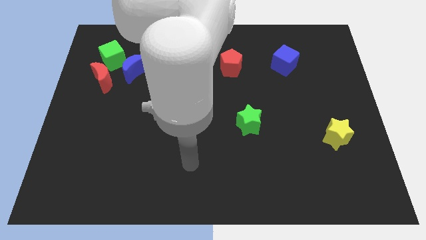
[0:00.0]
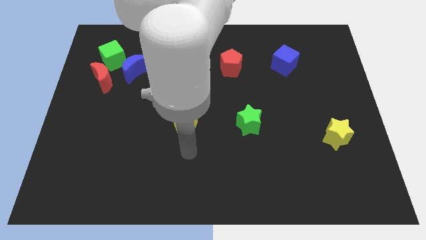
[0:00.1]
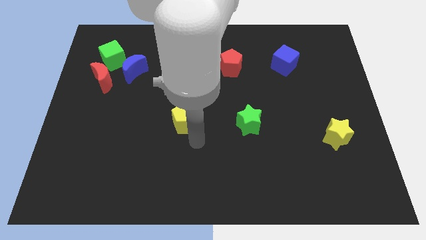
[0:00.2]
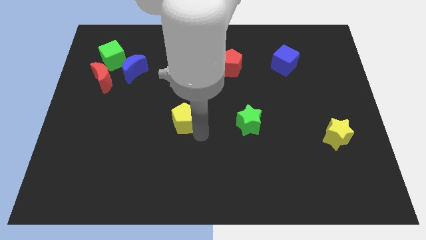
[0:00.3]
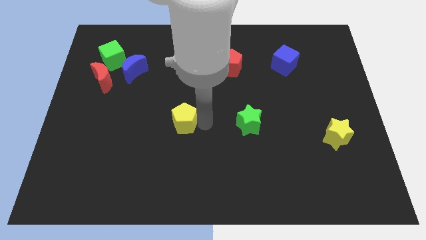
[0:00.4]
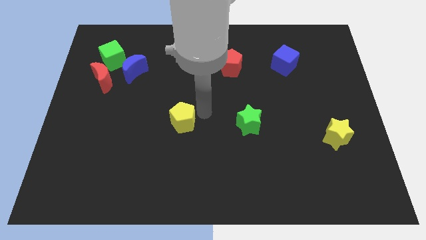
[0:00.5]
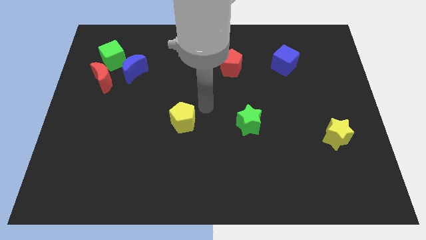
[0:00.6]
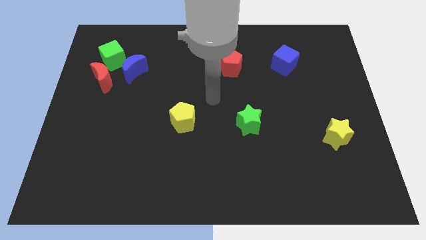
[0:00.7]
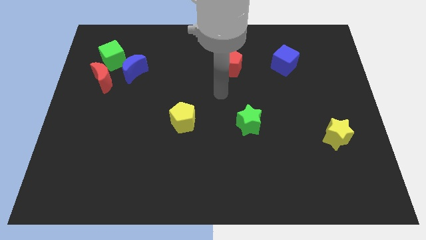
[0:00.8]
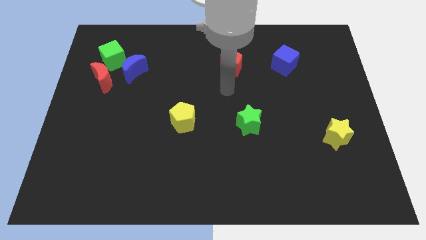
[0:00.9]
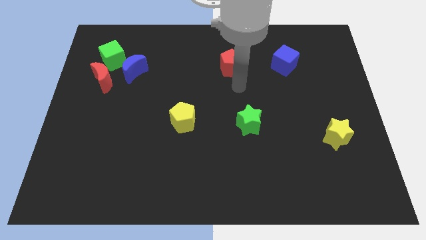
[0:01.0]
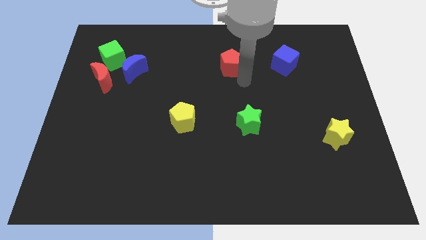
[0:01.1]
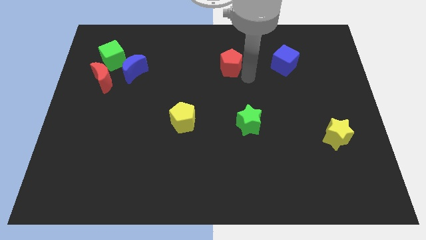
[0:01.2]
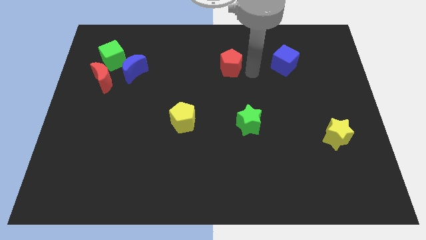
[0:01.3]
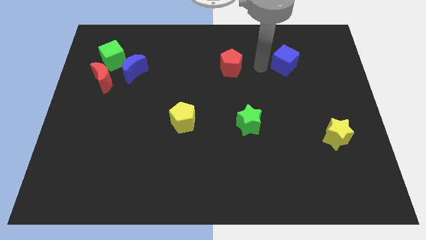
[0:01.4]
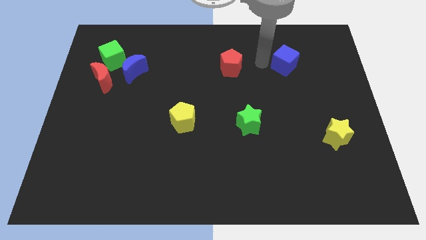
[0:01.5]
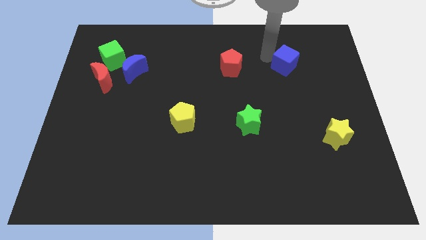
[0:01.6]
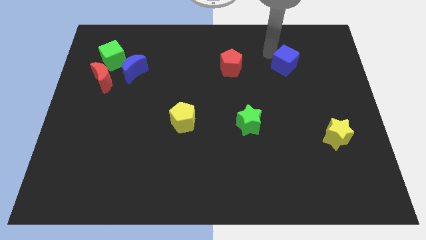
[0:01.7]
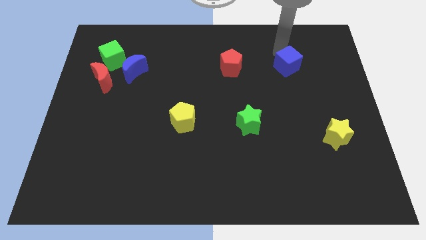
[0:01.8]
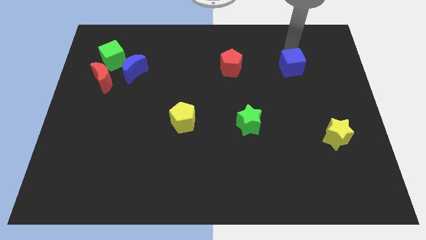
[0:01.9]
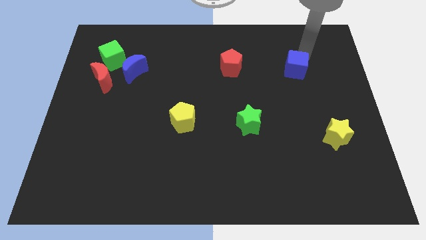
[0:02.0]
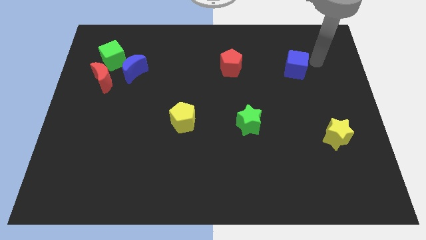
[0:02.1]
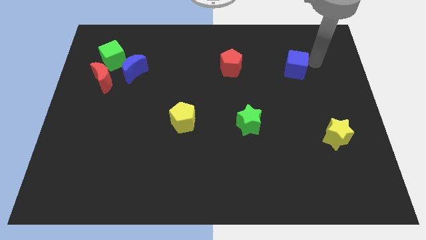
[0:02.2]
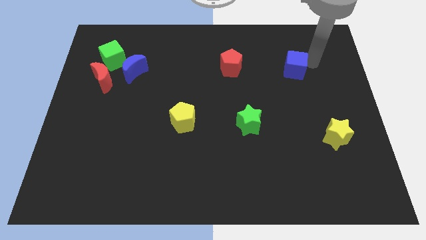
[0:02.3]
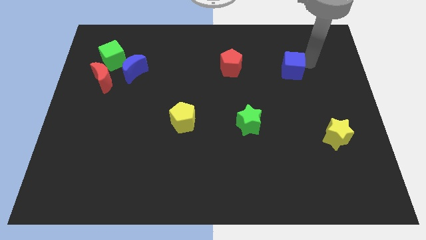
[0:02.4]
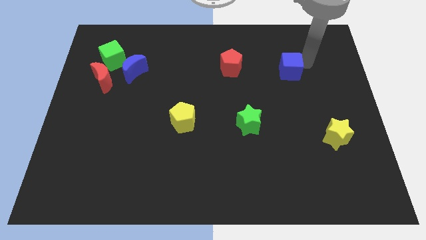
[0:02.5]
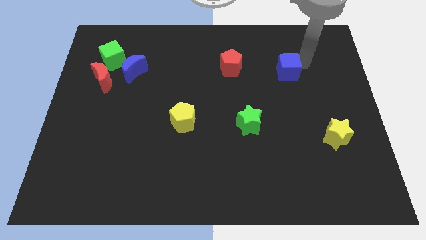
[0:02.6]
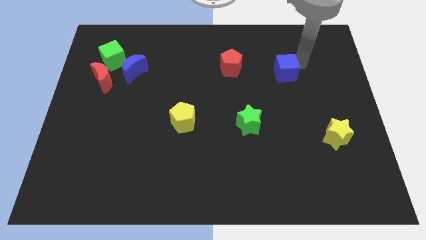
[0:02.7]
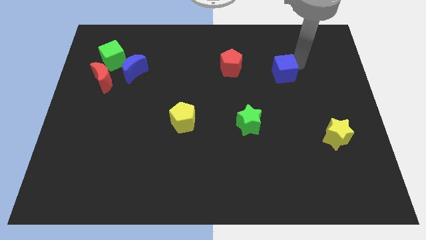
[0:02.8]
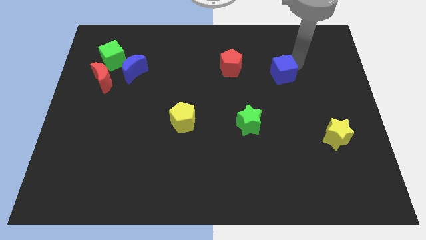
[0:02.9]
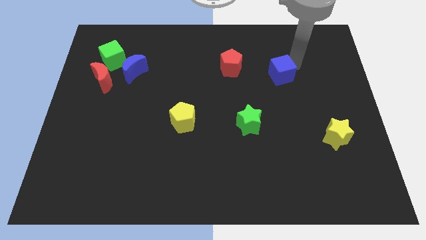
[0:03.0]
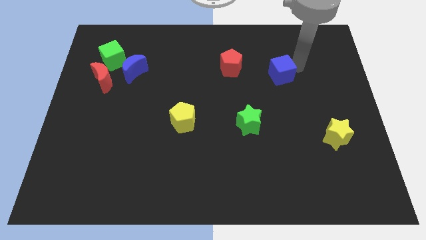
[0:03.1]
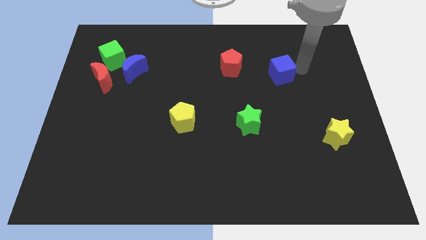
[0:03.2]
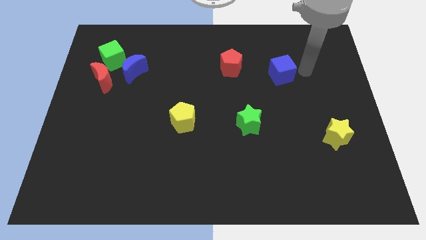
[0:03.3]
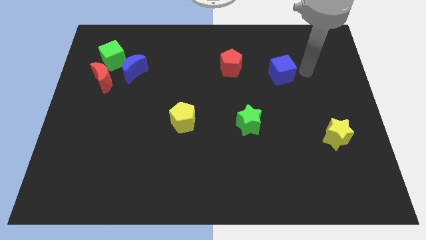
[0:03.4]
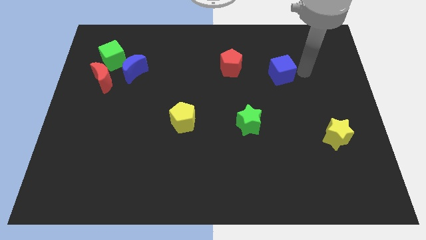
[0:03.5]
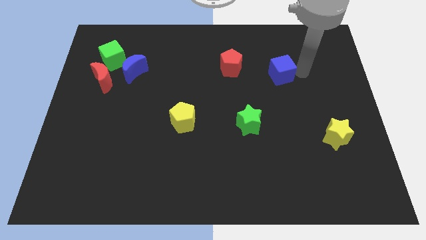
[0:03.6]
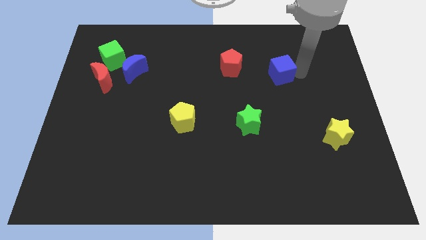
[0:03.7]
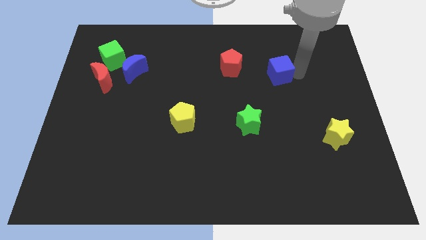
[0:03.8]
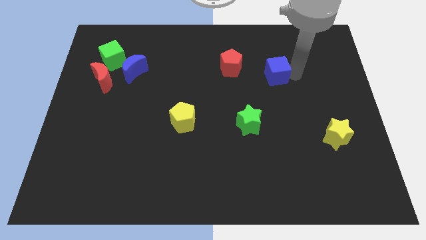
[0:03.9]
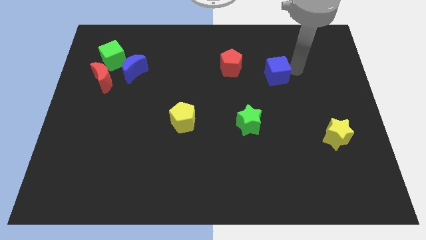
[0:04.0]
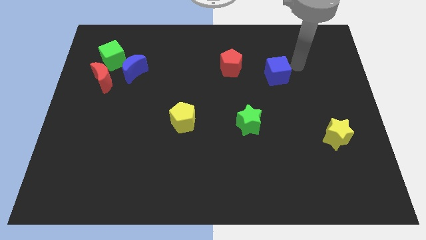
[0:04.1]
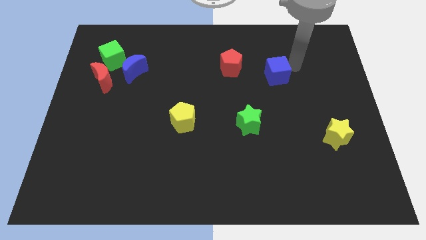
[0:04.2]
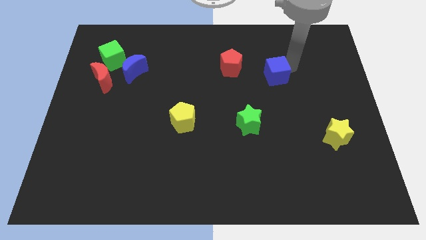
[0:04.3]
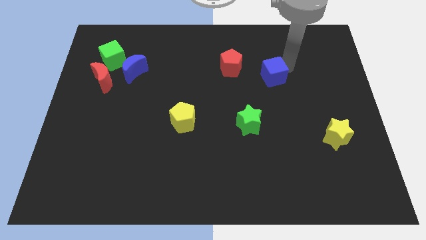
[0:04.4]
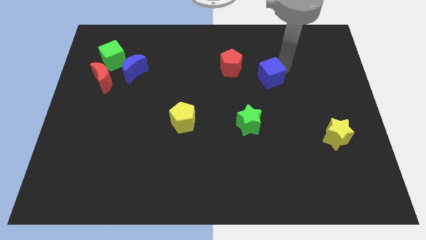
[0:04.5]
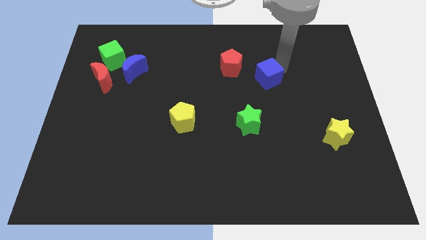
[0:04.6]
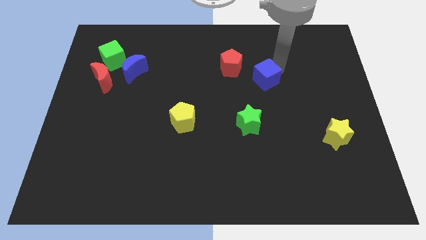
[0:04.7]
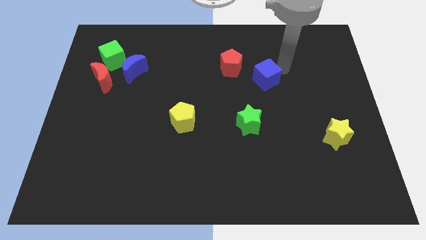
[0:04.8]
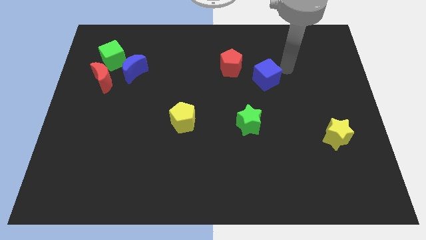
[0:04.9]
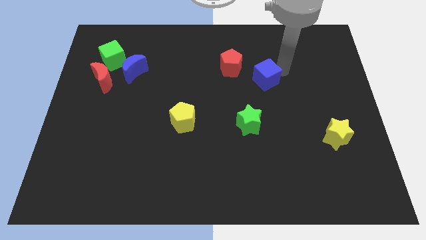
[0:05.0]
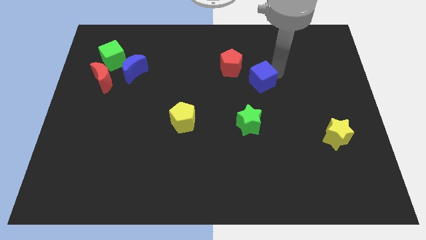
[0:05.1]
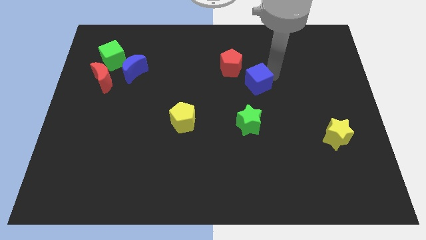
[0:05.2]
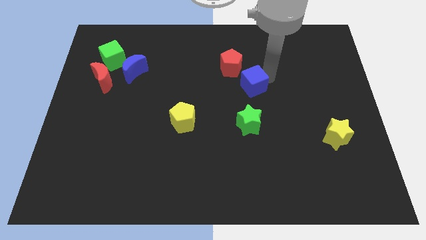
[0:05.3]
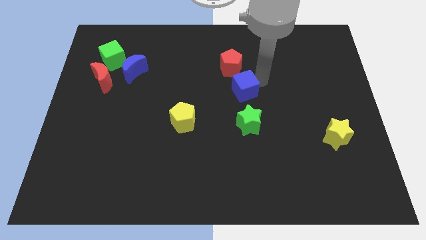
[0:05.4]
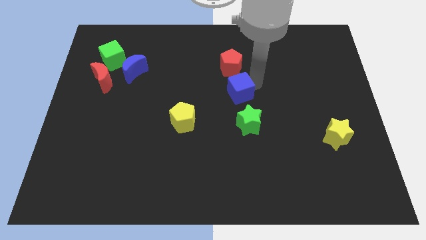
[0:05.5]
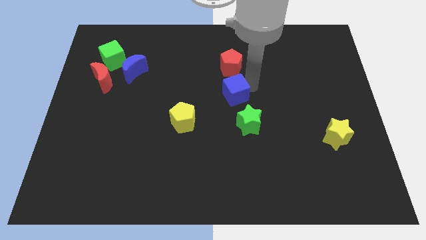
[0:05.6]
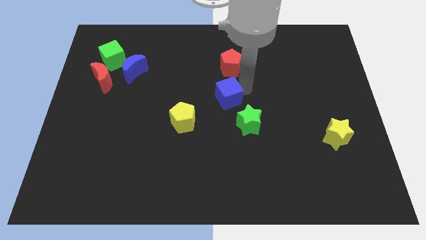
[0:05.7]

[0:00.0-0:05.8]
push the blue cube to the top right side of the yellow pentagon

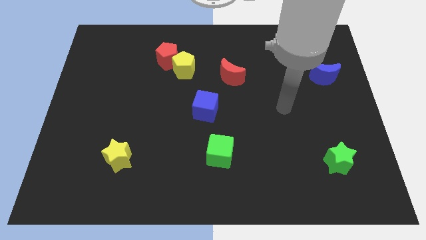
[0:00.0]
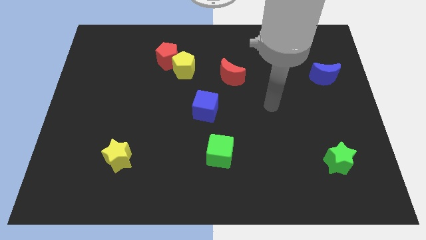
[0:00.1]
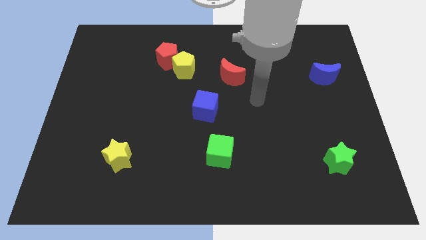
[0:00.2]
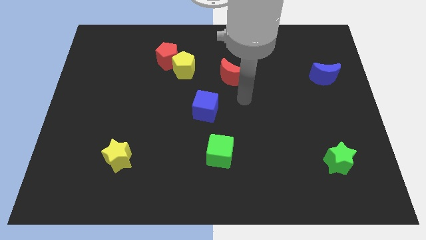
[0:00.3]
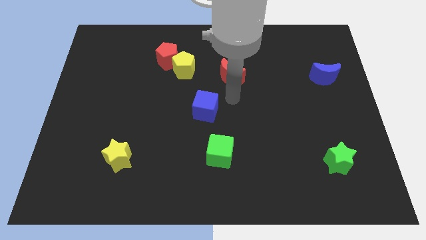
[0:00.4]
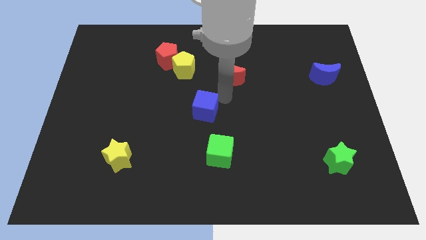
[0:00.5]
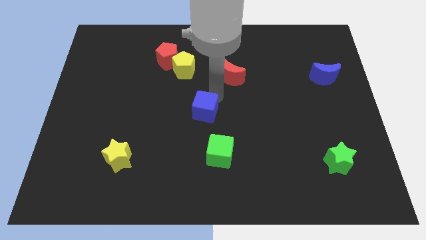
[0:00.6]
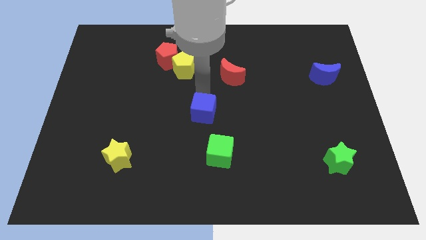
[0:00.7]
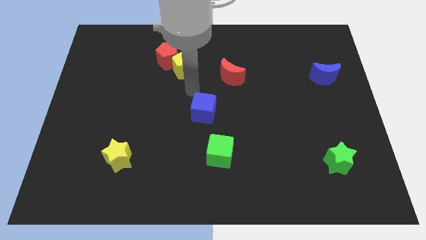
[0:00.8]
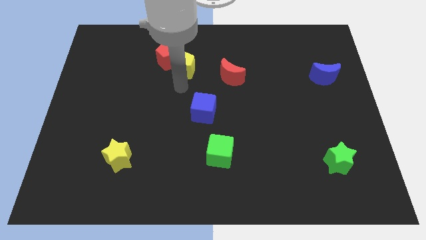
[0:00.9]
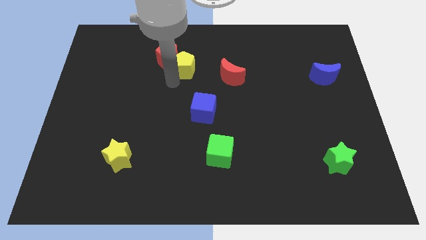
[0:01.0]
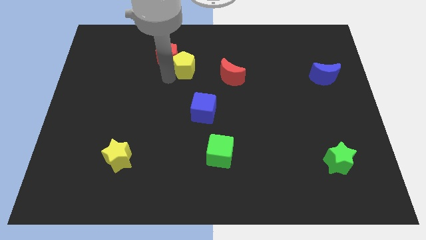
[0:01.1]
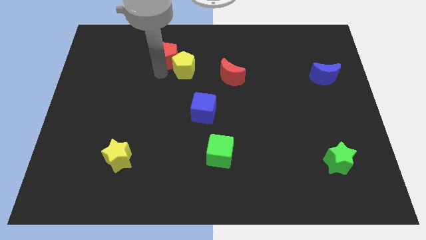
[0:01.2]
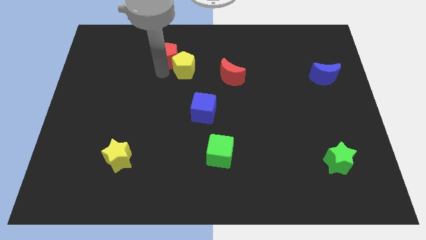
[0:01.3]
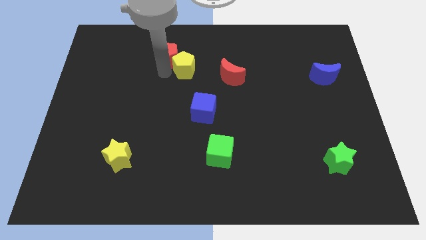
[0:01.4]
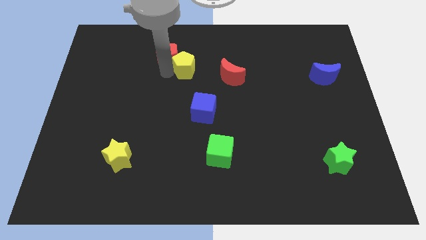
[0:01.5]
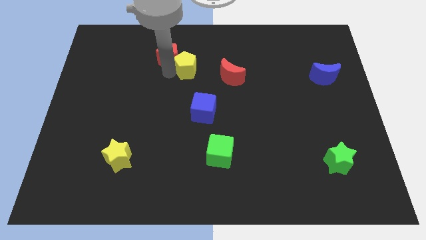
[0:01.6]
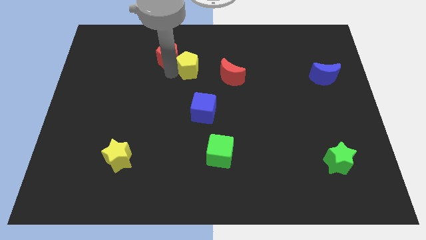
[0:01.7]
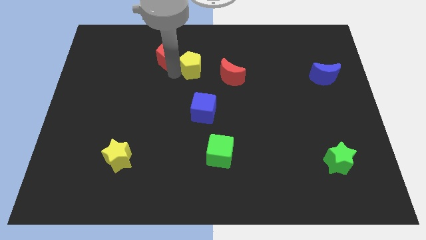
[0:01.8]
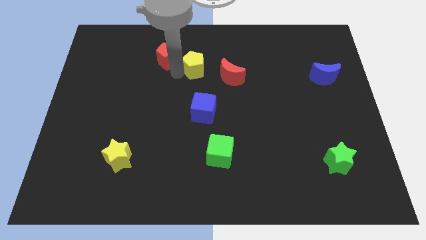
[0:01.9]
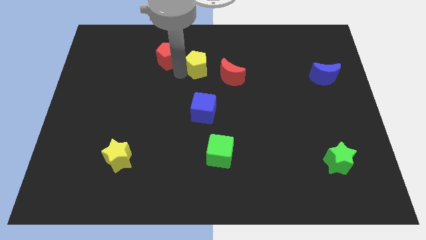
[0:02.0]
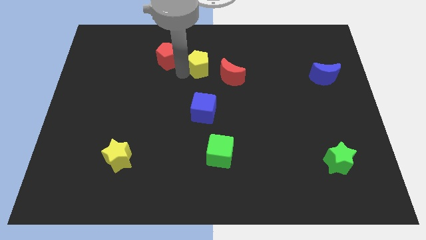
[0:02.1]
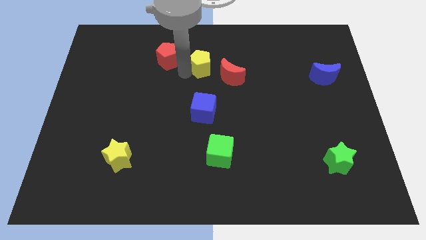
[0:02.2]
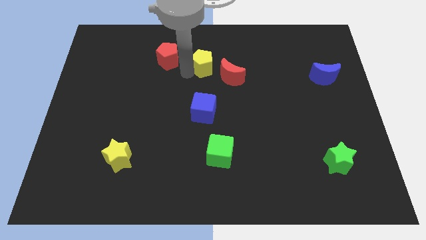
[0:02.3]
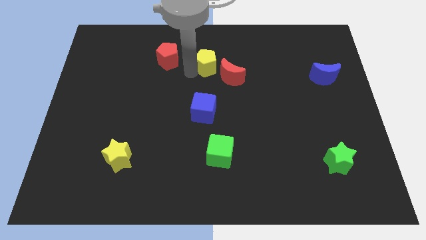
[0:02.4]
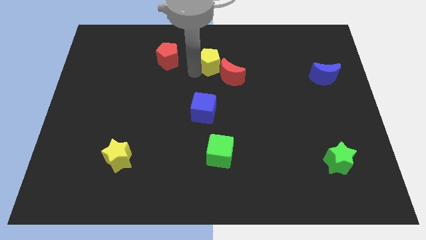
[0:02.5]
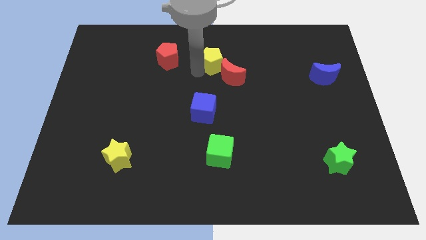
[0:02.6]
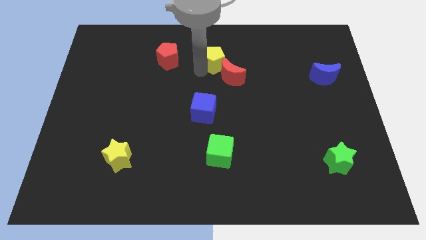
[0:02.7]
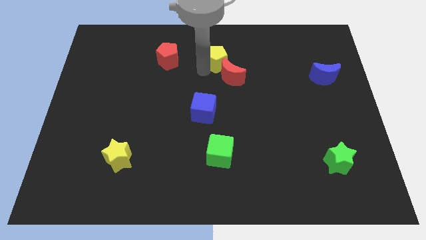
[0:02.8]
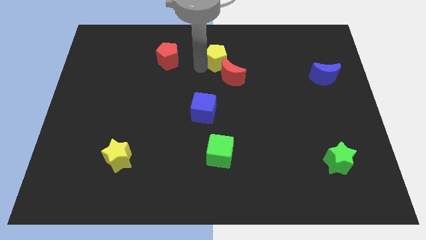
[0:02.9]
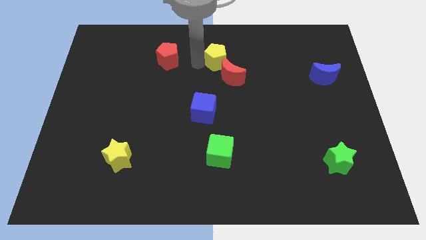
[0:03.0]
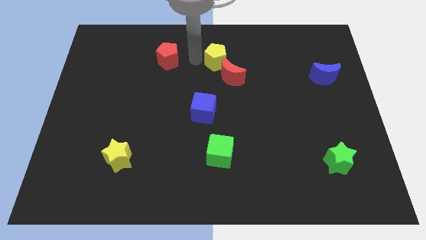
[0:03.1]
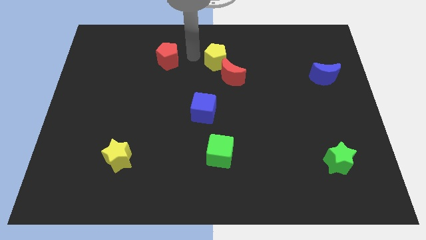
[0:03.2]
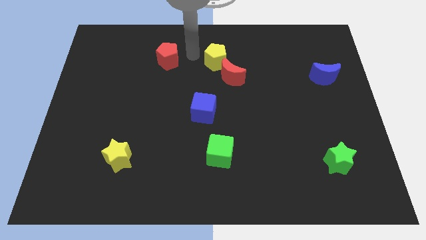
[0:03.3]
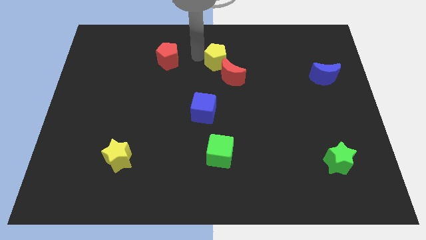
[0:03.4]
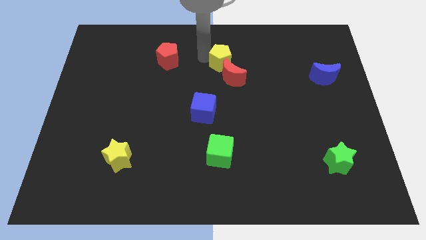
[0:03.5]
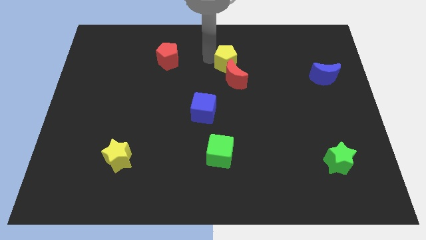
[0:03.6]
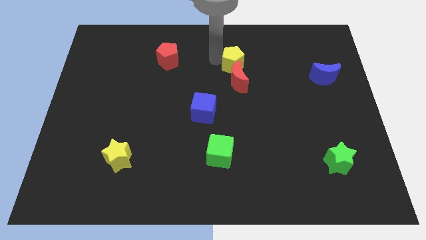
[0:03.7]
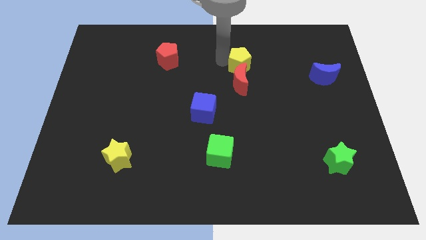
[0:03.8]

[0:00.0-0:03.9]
put the yellow pentagon to the top right side of the red moon
